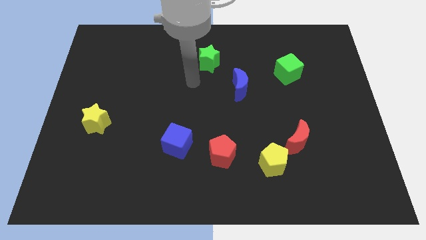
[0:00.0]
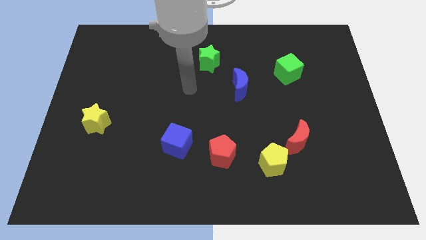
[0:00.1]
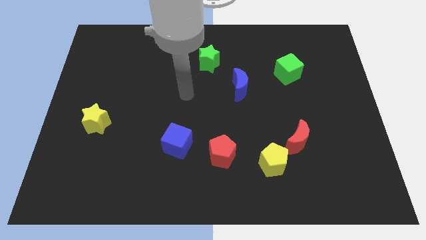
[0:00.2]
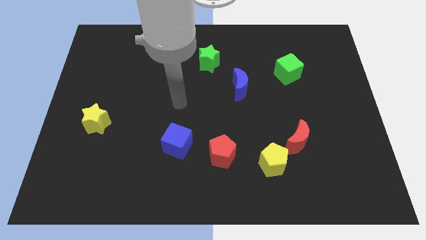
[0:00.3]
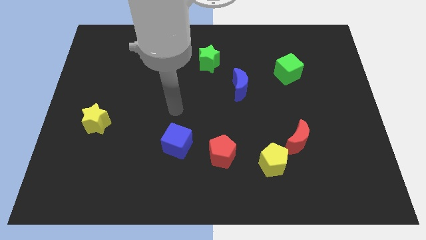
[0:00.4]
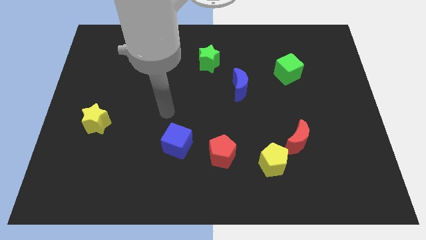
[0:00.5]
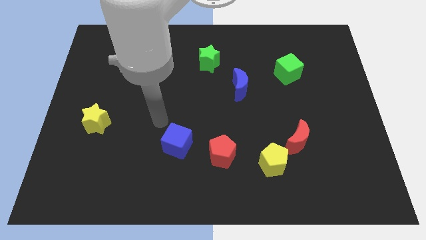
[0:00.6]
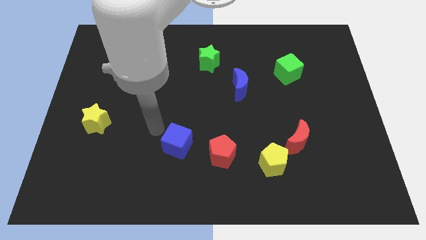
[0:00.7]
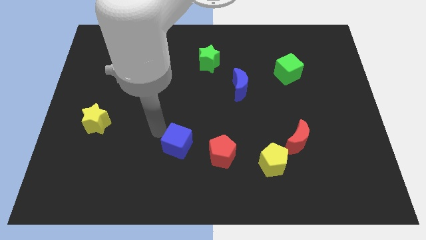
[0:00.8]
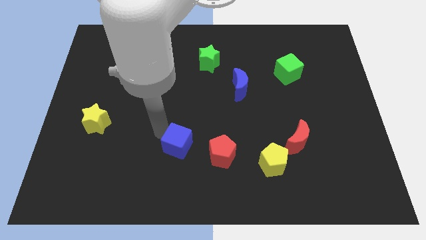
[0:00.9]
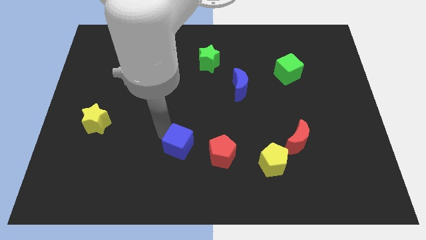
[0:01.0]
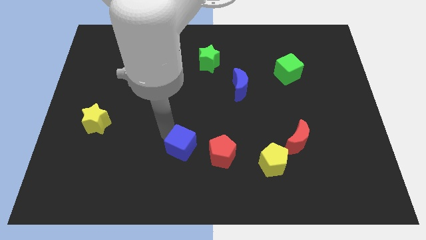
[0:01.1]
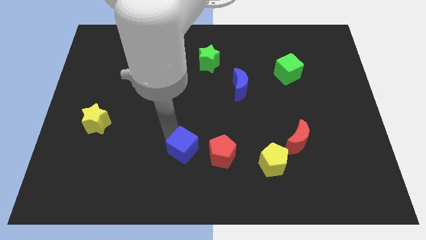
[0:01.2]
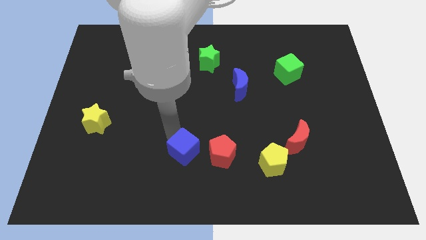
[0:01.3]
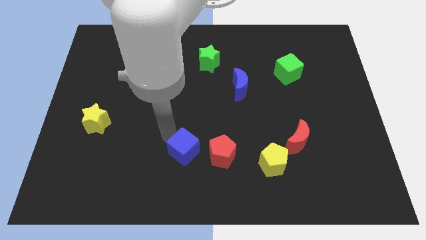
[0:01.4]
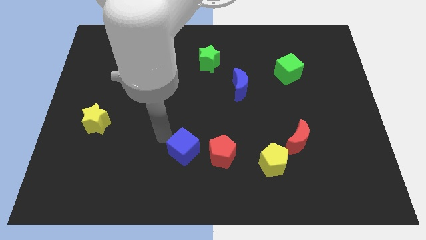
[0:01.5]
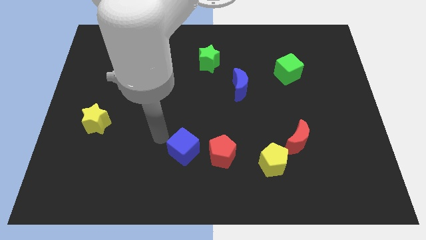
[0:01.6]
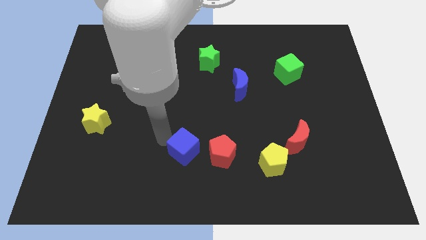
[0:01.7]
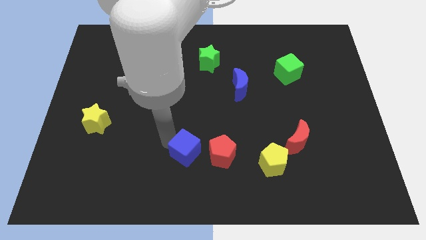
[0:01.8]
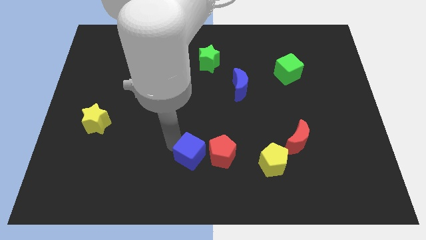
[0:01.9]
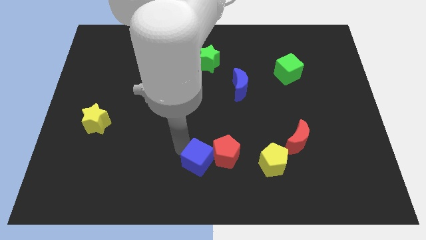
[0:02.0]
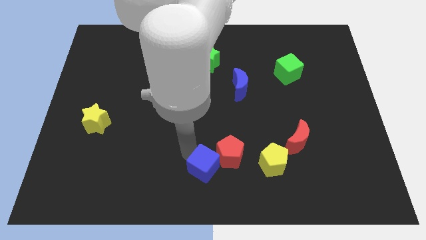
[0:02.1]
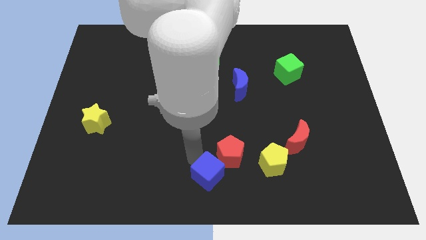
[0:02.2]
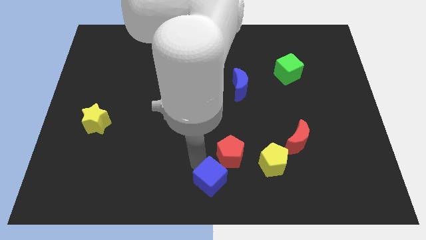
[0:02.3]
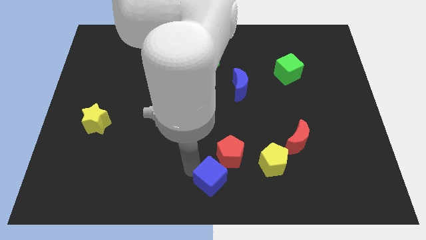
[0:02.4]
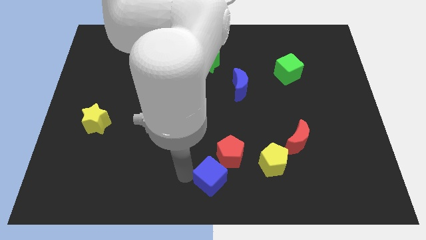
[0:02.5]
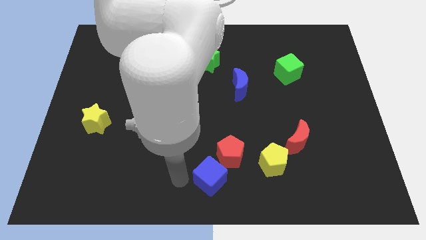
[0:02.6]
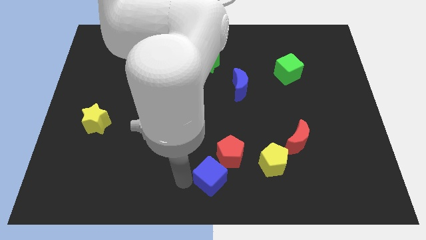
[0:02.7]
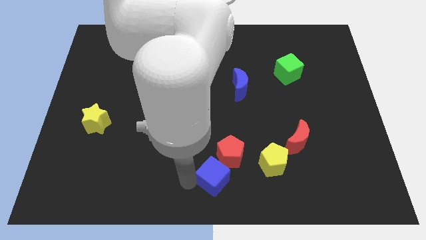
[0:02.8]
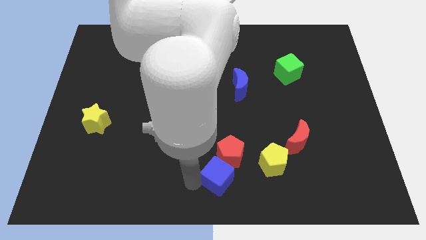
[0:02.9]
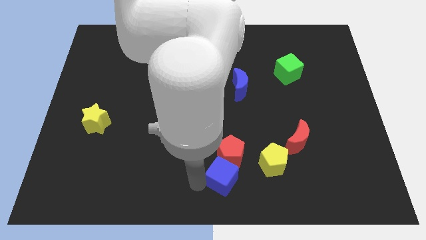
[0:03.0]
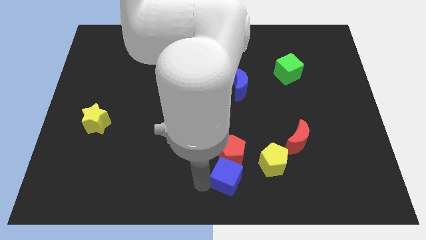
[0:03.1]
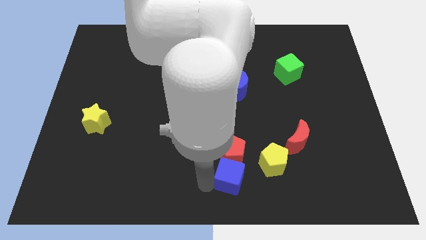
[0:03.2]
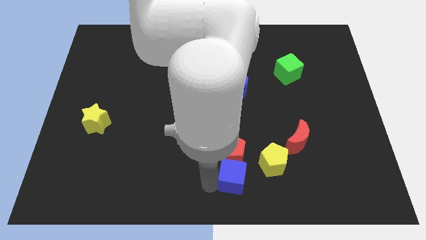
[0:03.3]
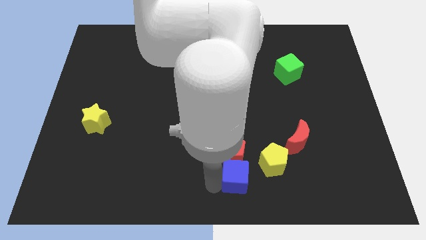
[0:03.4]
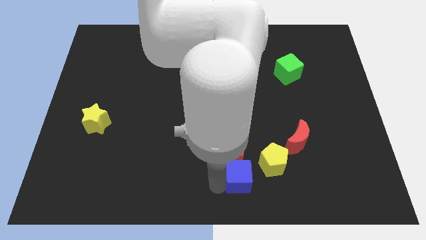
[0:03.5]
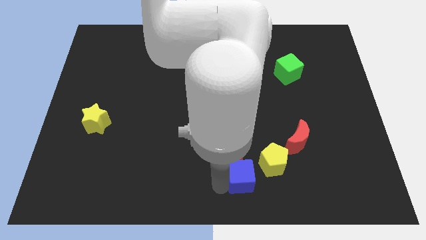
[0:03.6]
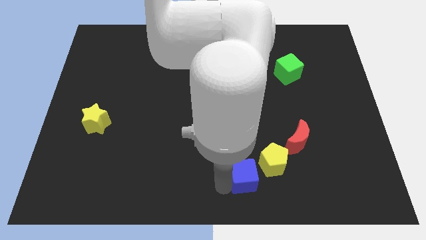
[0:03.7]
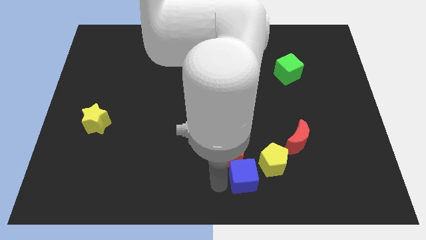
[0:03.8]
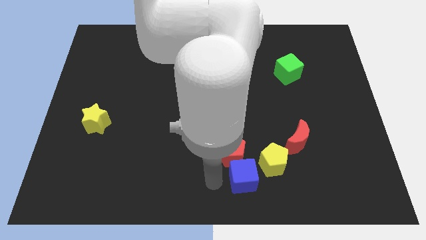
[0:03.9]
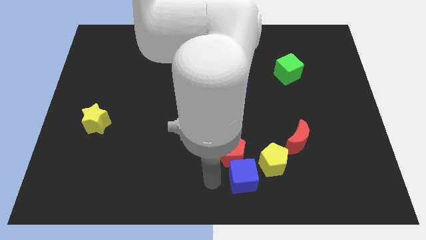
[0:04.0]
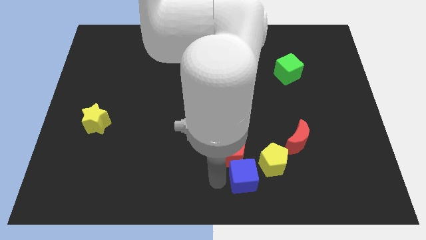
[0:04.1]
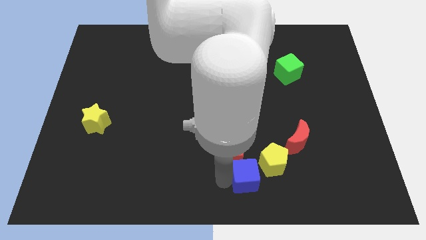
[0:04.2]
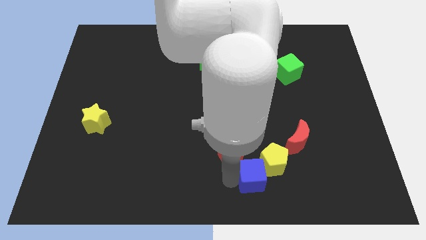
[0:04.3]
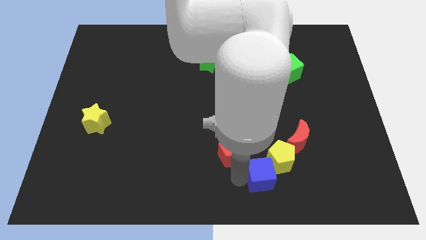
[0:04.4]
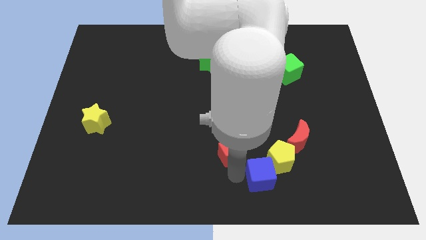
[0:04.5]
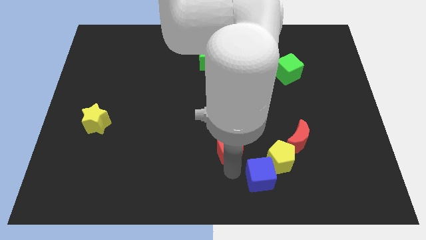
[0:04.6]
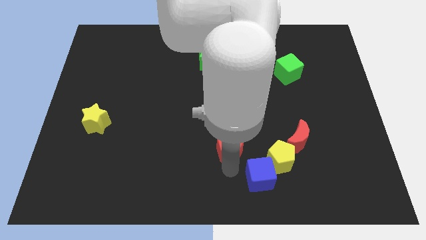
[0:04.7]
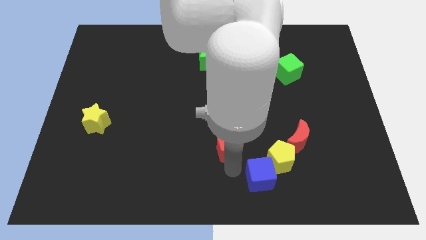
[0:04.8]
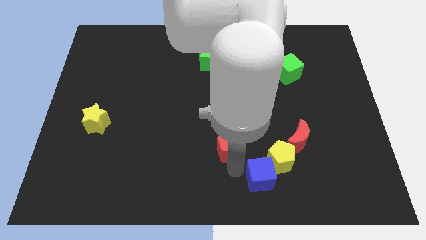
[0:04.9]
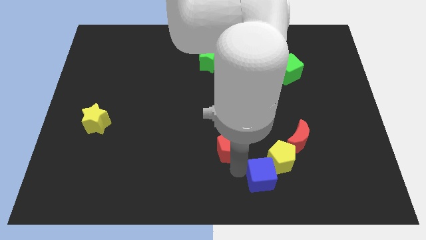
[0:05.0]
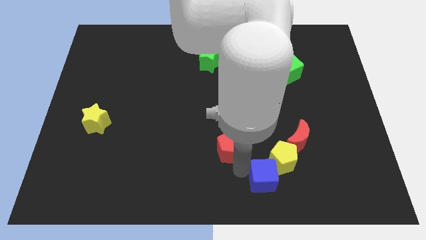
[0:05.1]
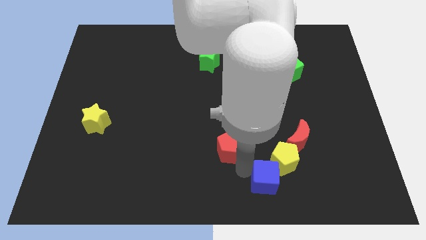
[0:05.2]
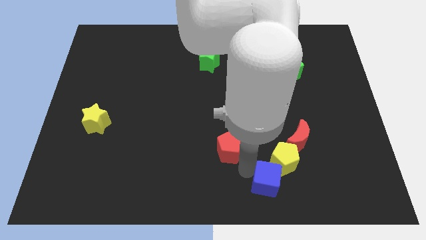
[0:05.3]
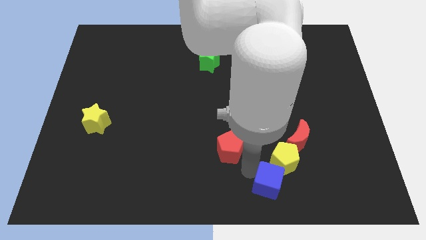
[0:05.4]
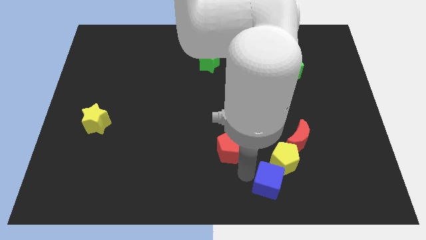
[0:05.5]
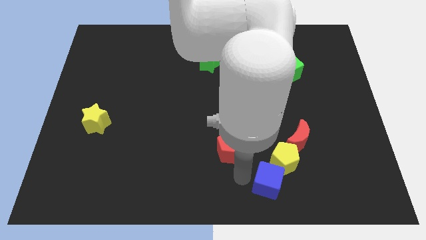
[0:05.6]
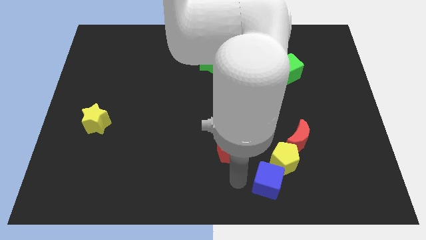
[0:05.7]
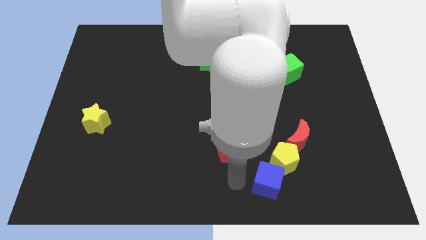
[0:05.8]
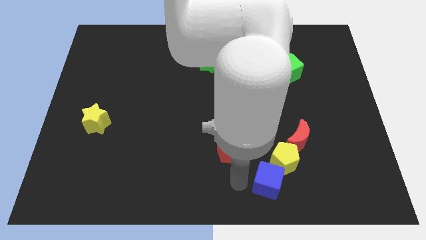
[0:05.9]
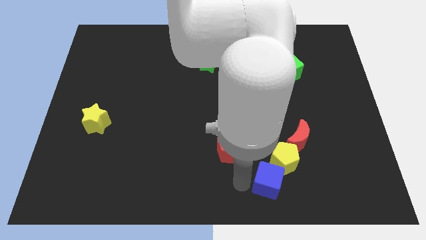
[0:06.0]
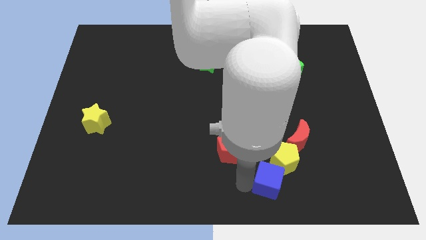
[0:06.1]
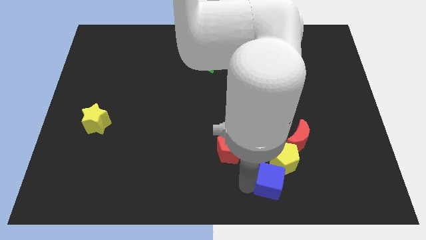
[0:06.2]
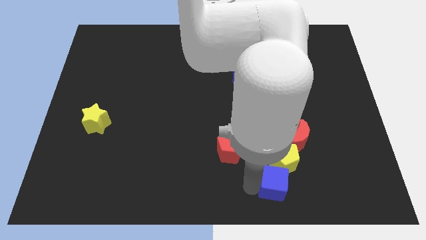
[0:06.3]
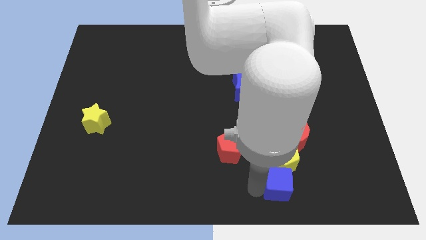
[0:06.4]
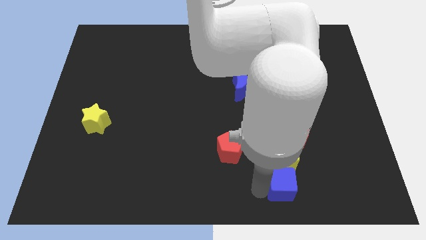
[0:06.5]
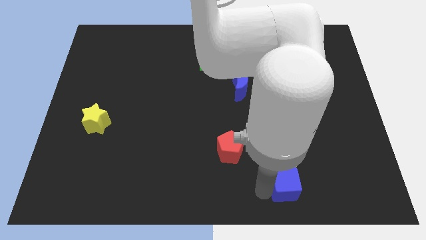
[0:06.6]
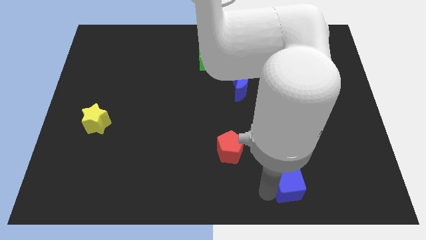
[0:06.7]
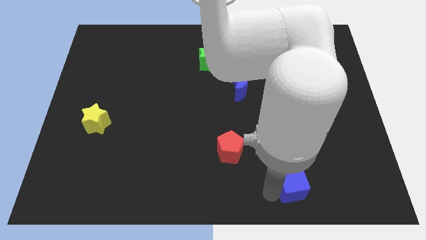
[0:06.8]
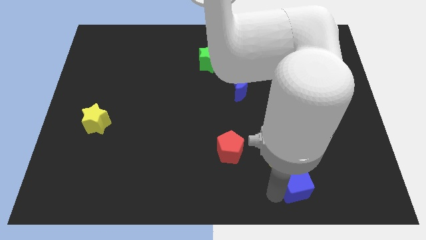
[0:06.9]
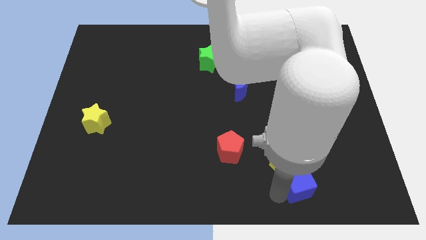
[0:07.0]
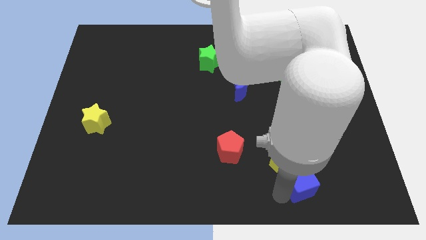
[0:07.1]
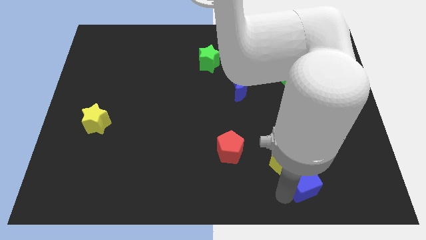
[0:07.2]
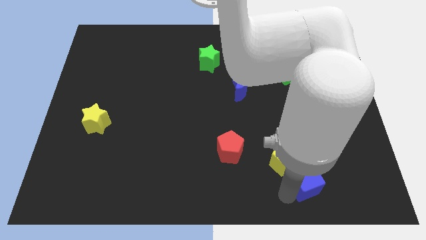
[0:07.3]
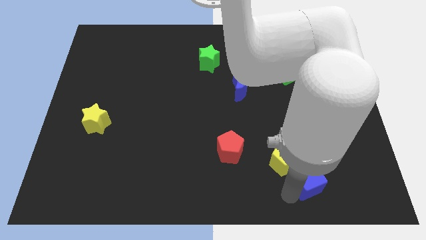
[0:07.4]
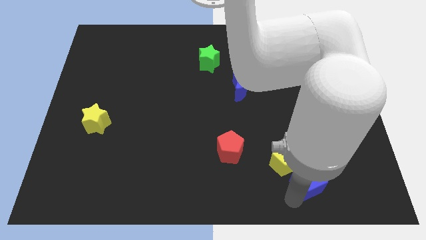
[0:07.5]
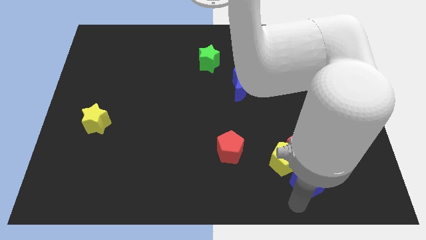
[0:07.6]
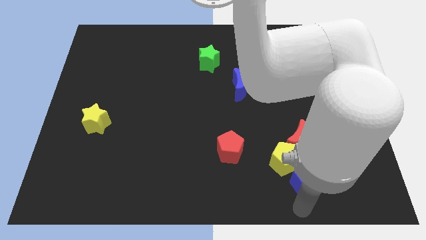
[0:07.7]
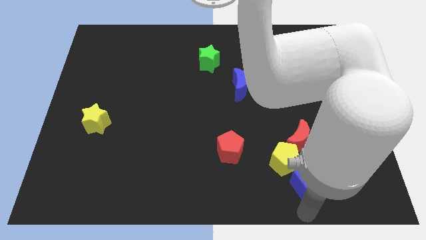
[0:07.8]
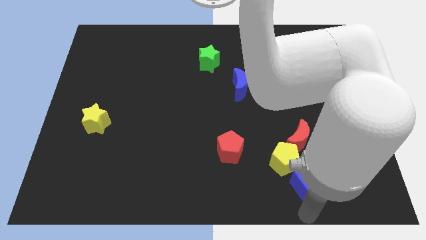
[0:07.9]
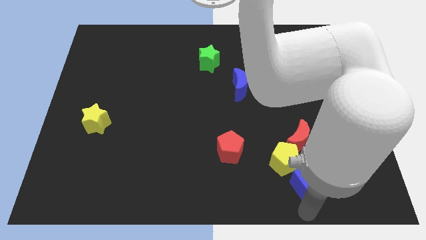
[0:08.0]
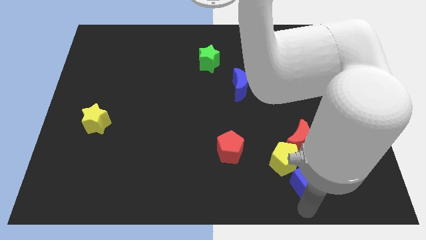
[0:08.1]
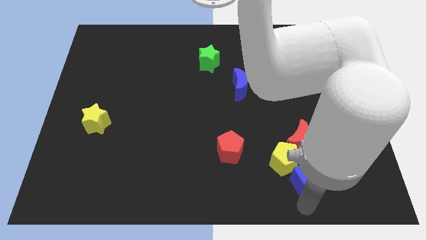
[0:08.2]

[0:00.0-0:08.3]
slide the blue cube just right of the yellow pentagon
